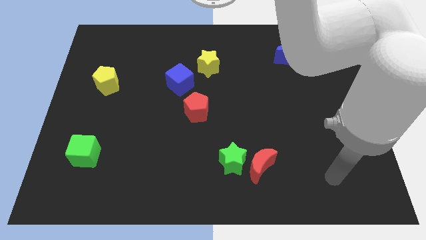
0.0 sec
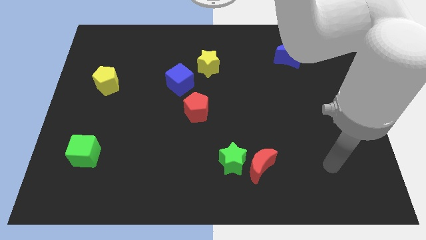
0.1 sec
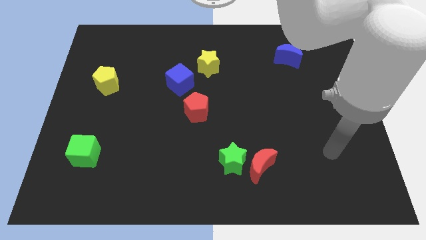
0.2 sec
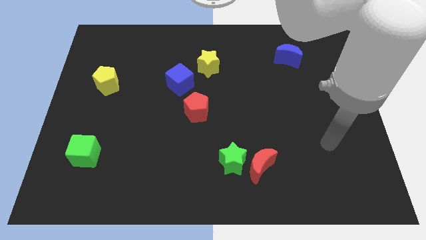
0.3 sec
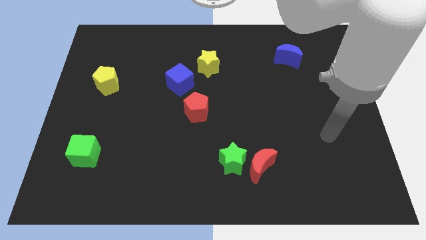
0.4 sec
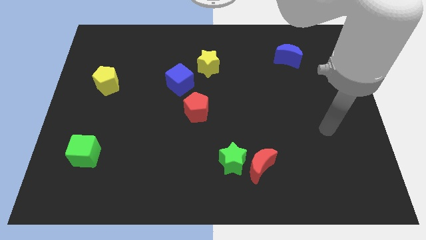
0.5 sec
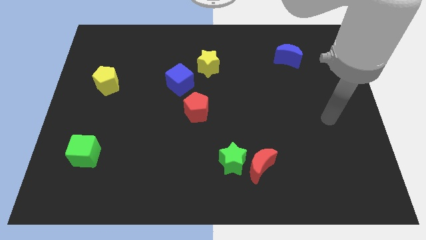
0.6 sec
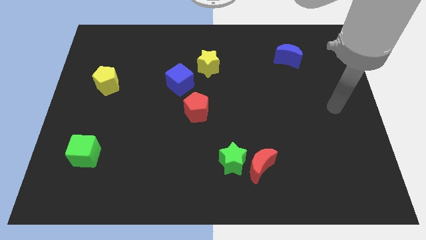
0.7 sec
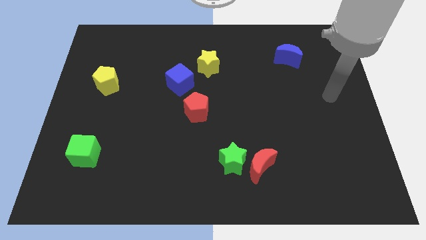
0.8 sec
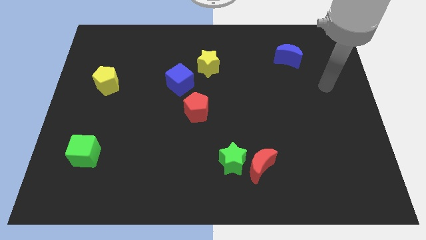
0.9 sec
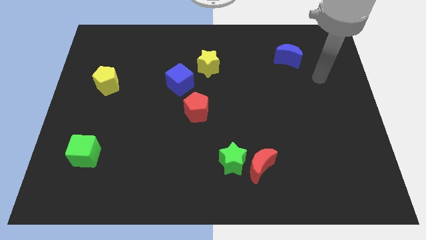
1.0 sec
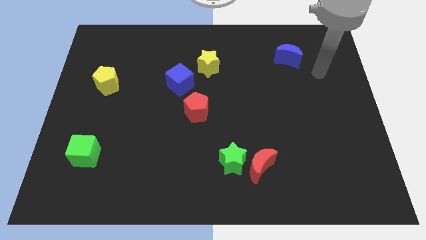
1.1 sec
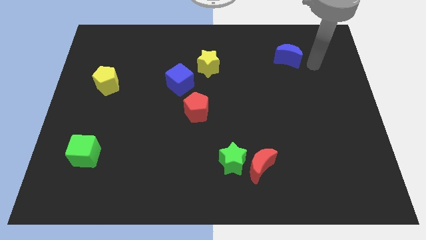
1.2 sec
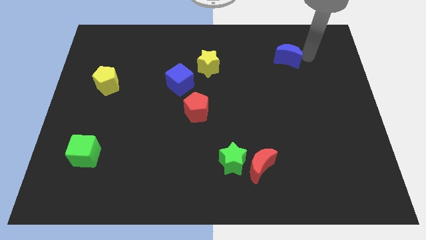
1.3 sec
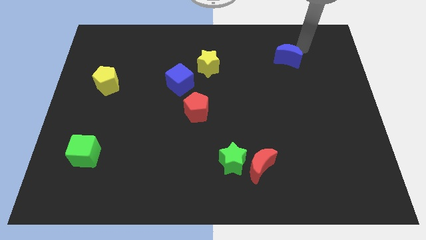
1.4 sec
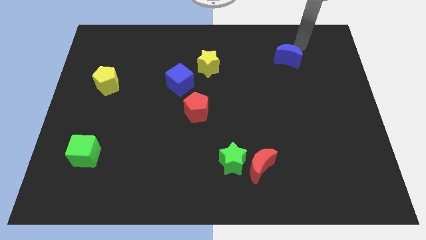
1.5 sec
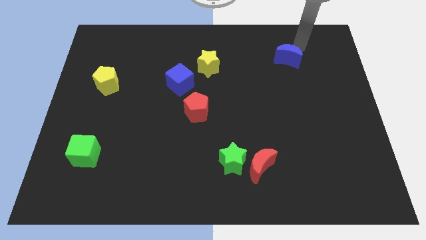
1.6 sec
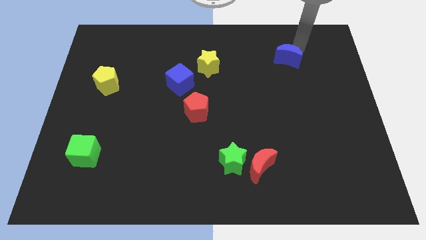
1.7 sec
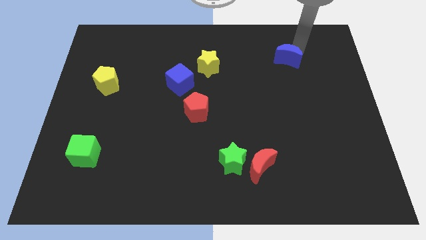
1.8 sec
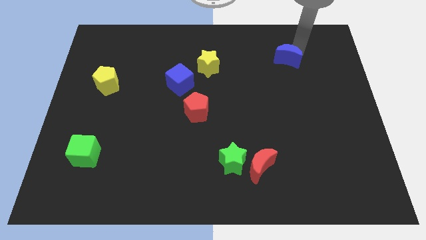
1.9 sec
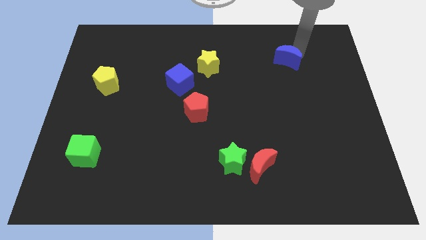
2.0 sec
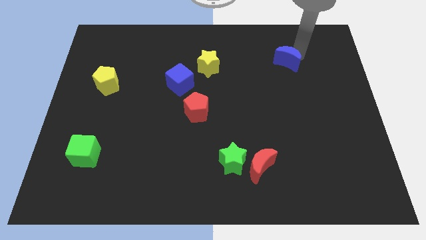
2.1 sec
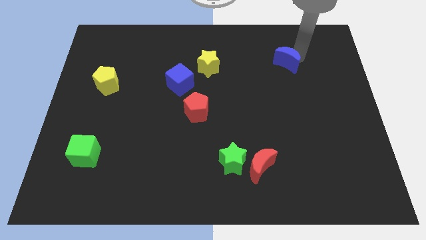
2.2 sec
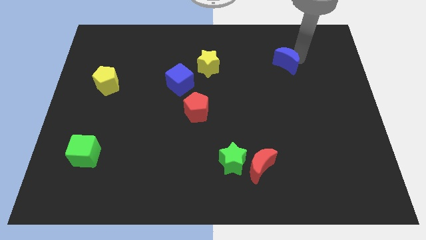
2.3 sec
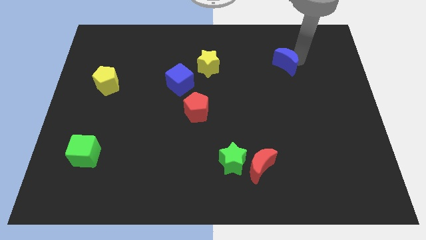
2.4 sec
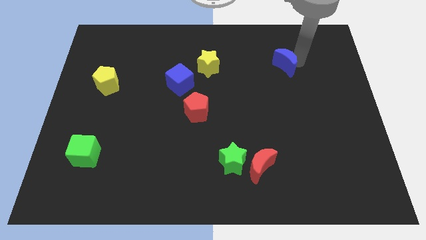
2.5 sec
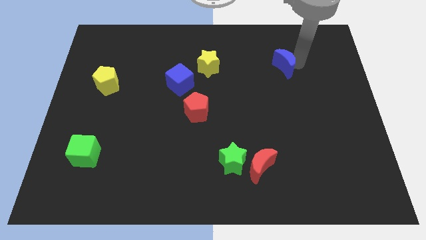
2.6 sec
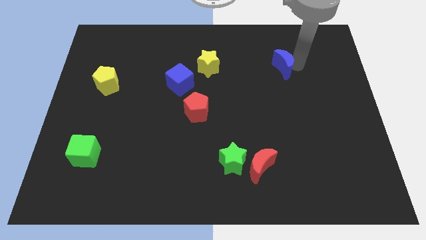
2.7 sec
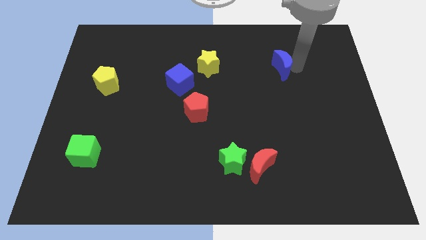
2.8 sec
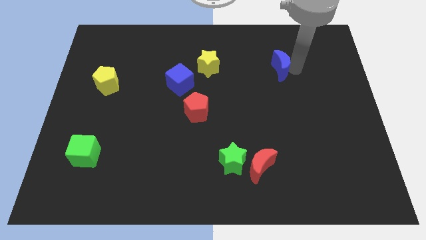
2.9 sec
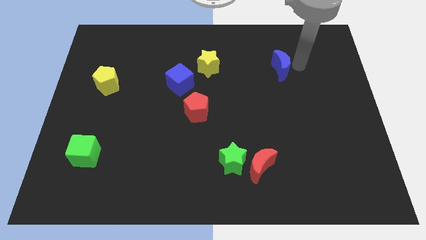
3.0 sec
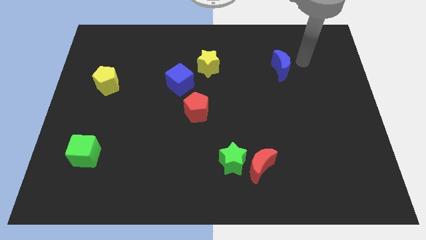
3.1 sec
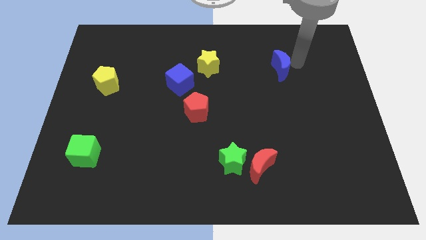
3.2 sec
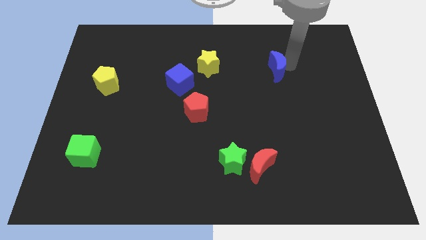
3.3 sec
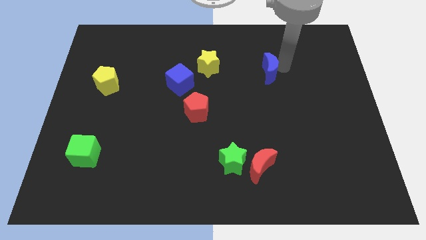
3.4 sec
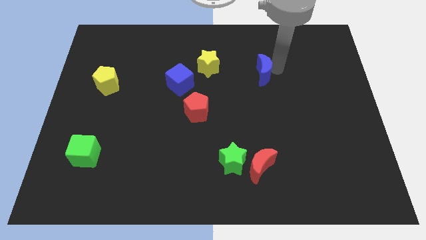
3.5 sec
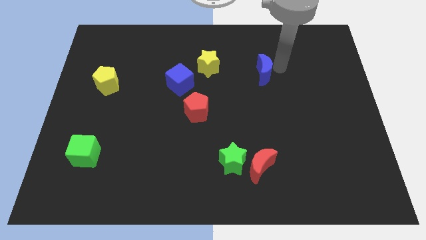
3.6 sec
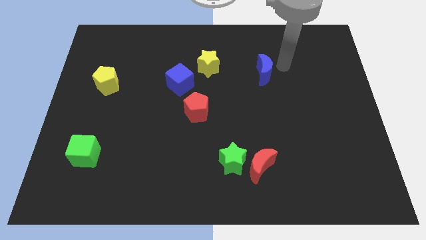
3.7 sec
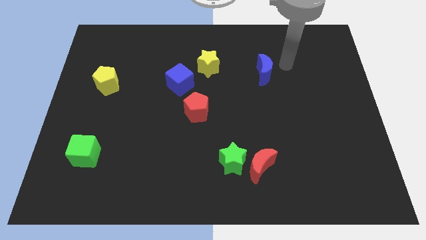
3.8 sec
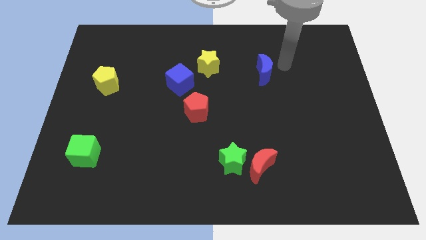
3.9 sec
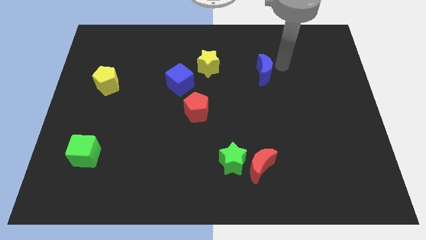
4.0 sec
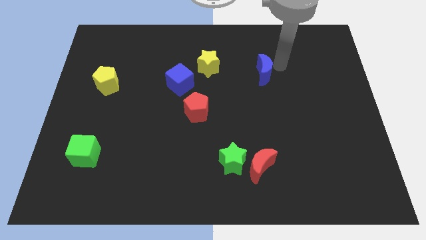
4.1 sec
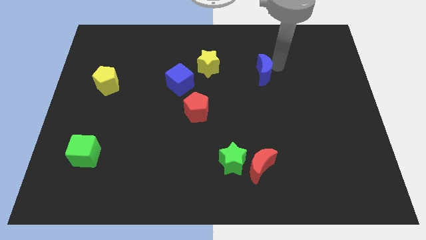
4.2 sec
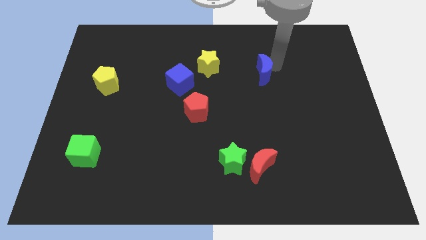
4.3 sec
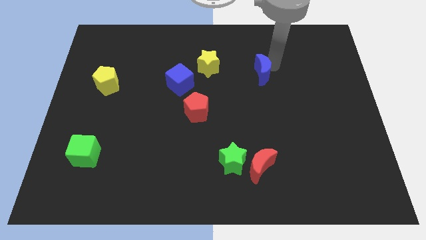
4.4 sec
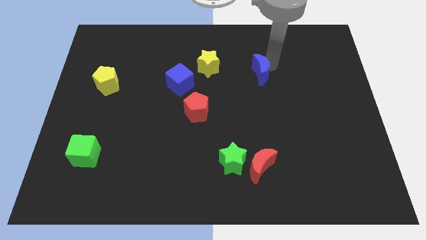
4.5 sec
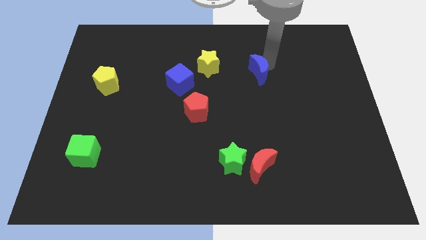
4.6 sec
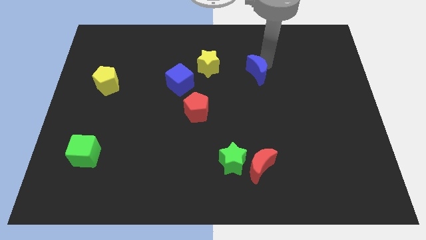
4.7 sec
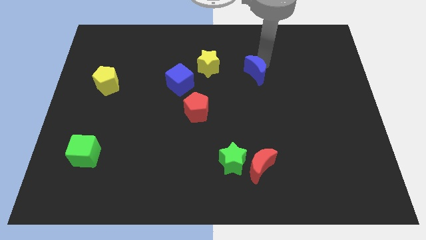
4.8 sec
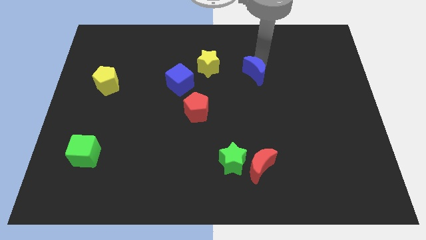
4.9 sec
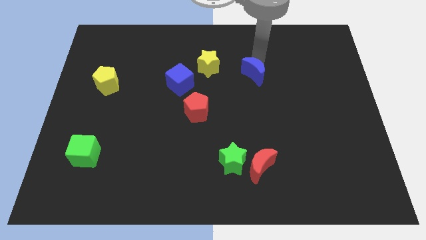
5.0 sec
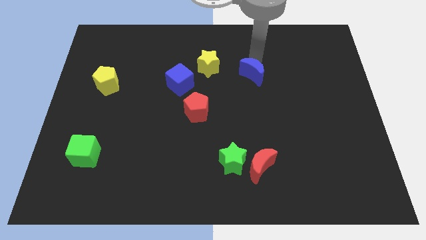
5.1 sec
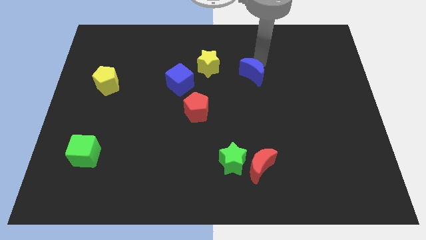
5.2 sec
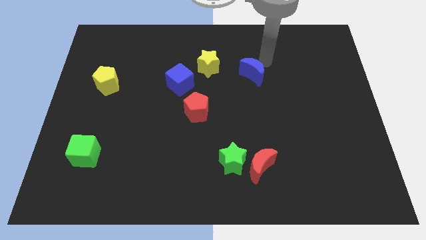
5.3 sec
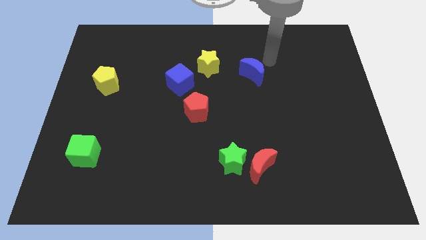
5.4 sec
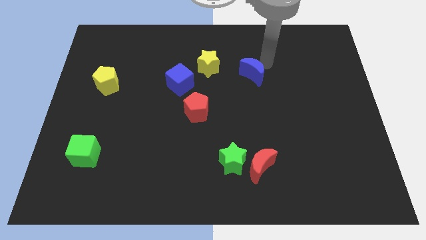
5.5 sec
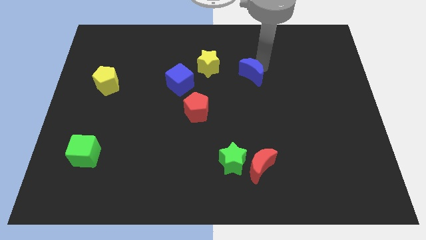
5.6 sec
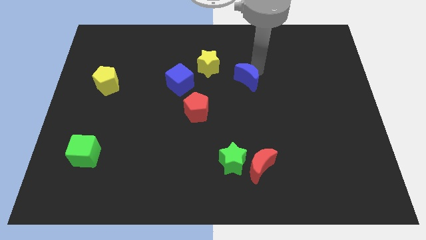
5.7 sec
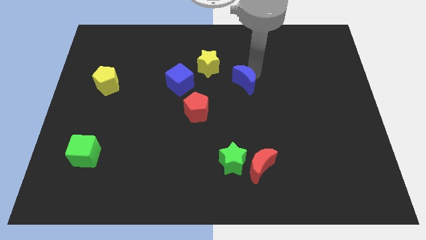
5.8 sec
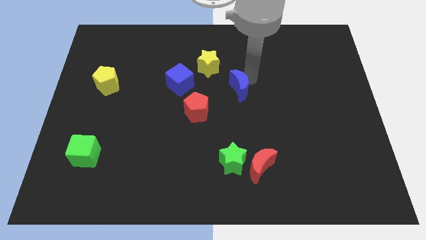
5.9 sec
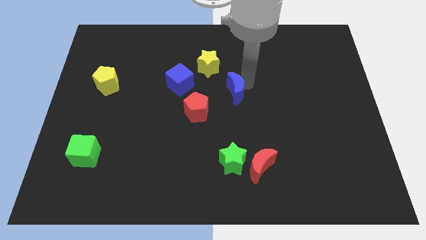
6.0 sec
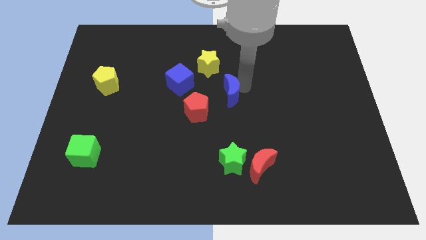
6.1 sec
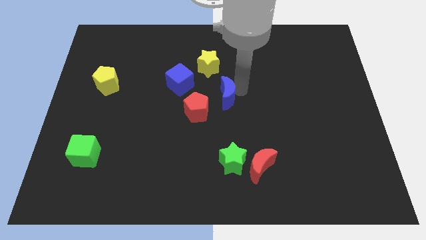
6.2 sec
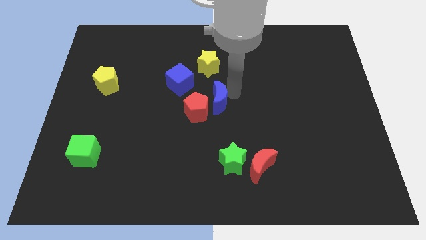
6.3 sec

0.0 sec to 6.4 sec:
slide the blue moon next to the red pentagon
